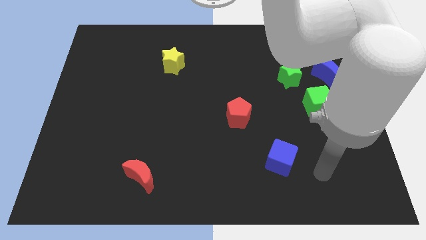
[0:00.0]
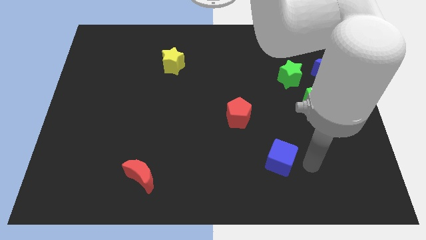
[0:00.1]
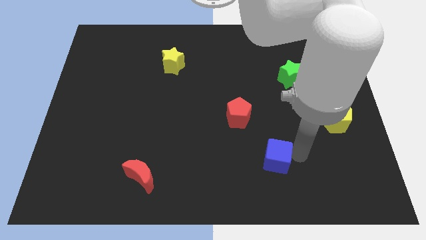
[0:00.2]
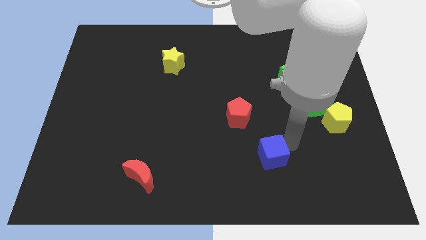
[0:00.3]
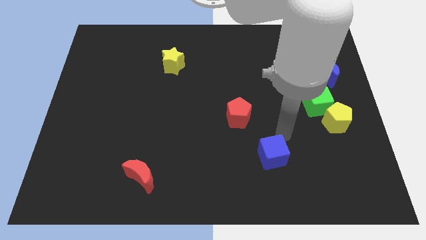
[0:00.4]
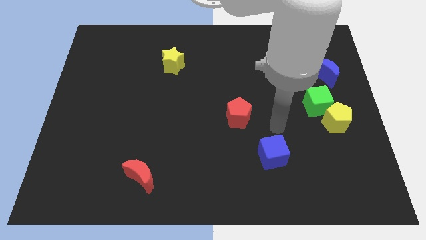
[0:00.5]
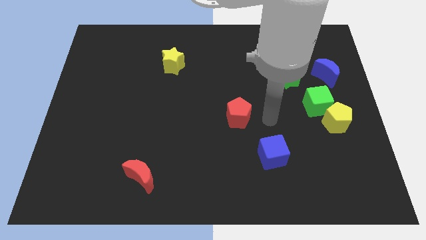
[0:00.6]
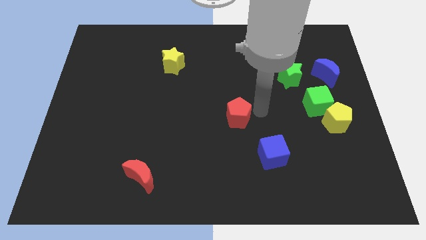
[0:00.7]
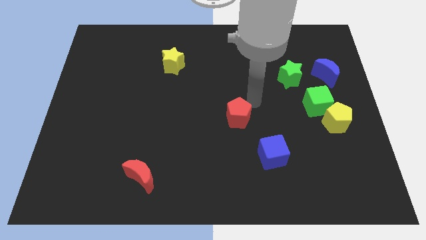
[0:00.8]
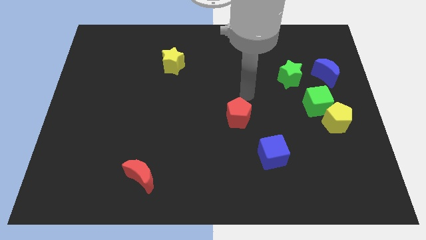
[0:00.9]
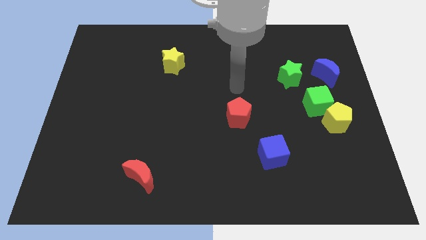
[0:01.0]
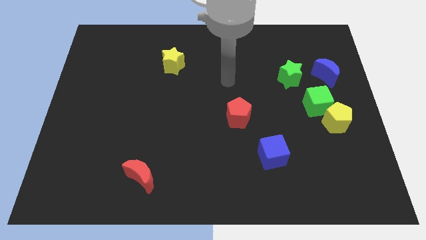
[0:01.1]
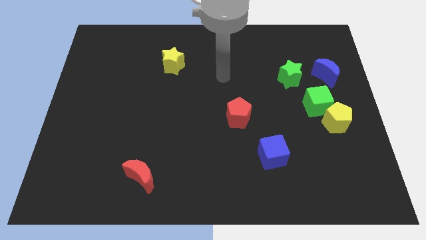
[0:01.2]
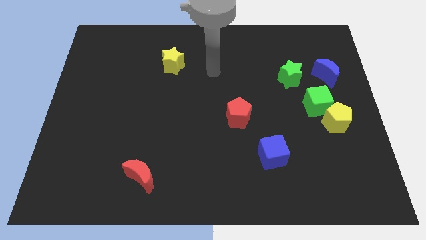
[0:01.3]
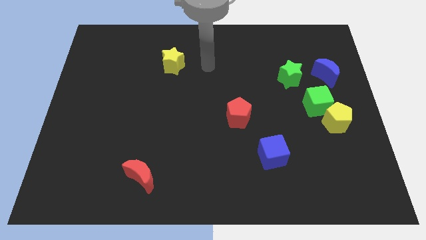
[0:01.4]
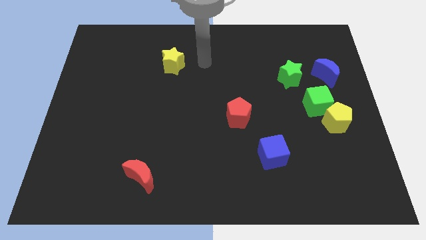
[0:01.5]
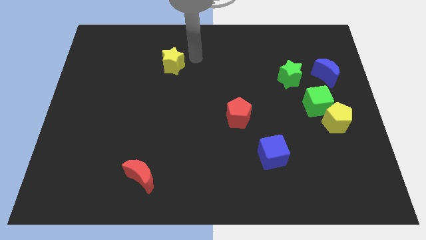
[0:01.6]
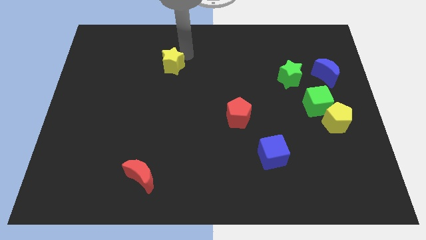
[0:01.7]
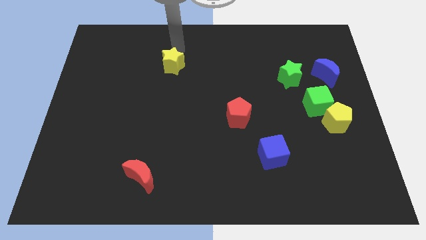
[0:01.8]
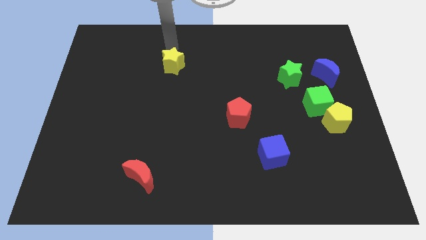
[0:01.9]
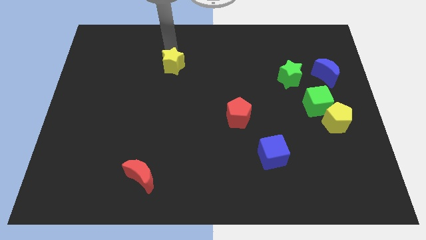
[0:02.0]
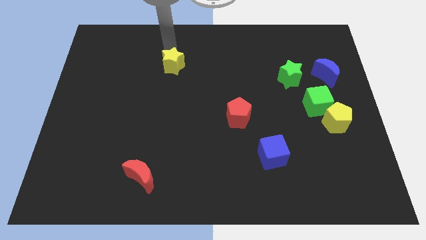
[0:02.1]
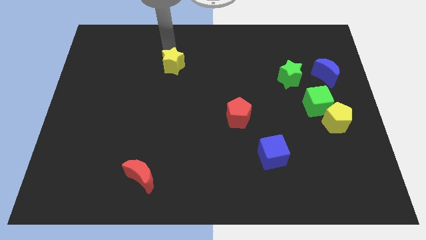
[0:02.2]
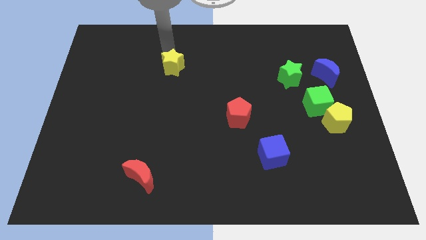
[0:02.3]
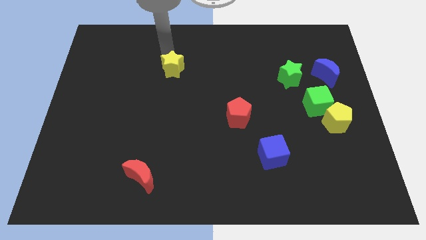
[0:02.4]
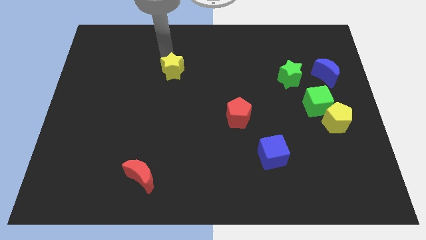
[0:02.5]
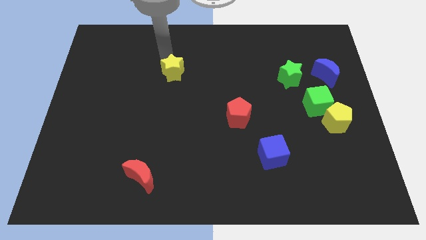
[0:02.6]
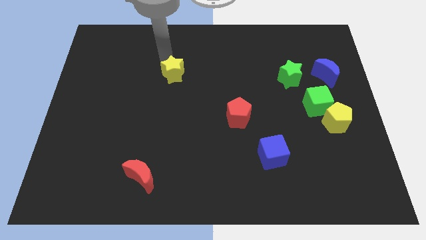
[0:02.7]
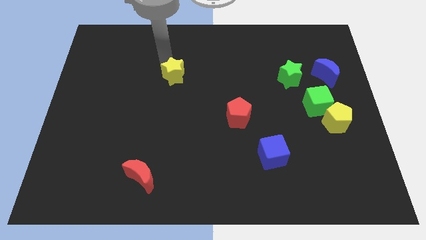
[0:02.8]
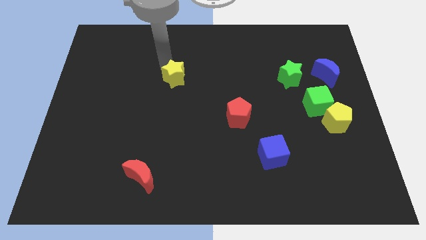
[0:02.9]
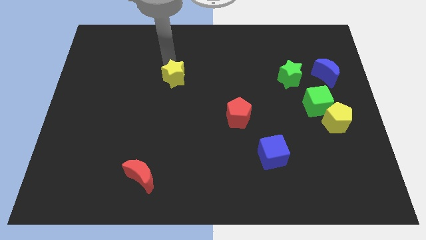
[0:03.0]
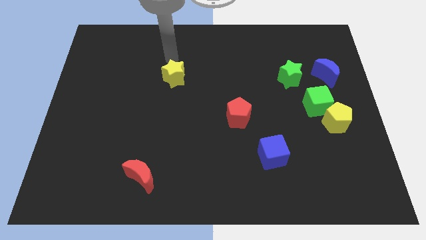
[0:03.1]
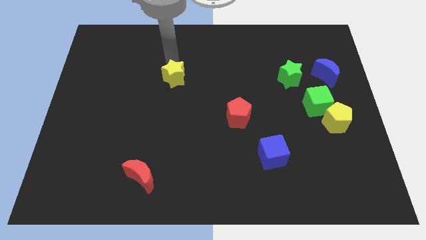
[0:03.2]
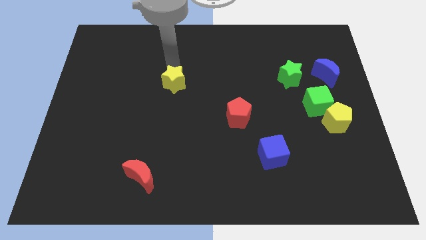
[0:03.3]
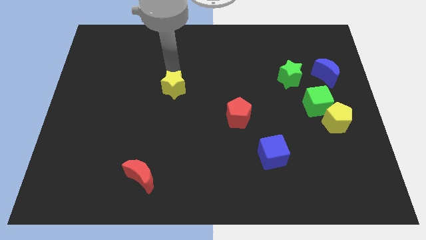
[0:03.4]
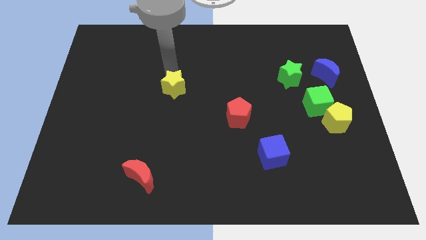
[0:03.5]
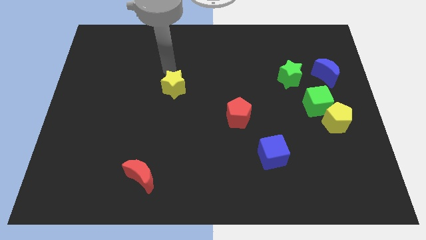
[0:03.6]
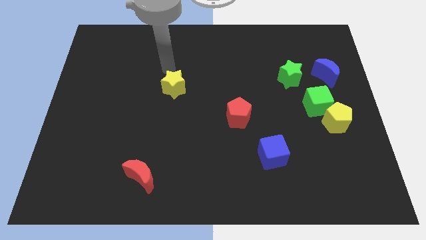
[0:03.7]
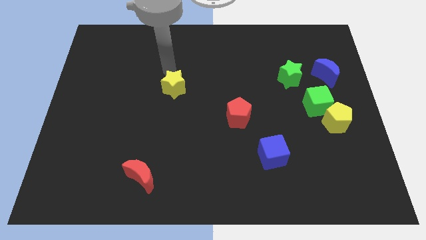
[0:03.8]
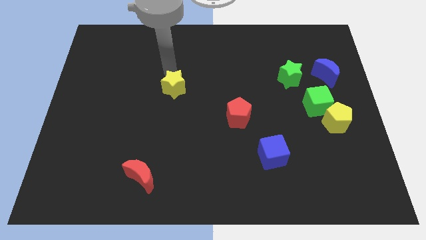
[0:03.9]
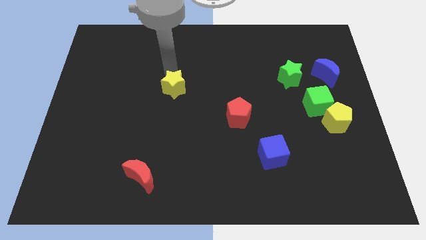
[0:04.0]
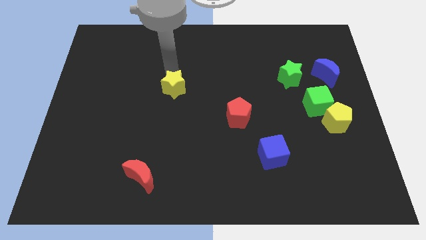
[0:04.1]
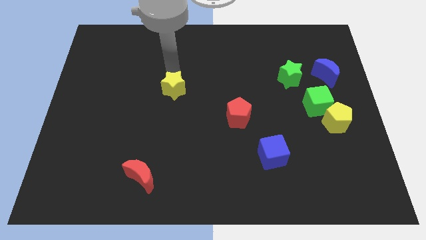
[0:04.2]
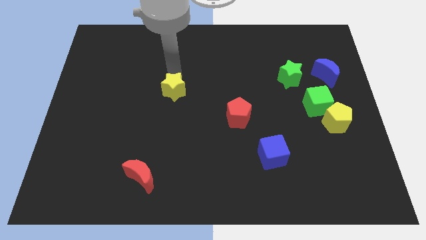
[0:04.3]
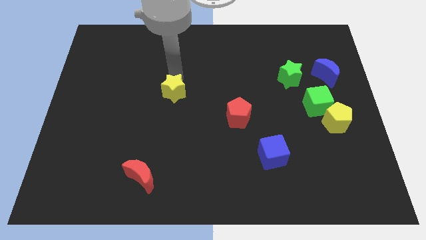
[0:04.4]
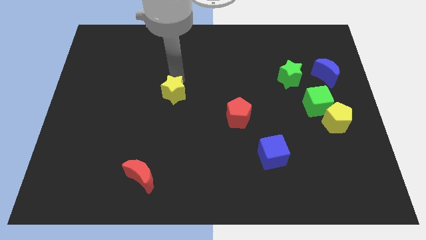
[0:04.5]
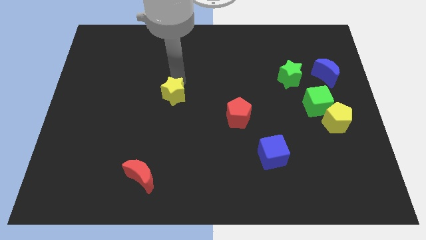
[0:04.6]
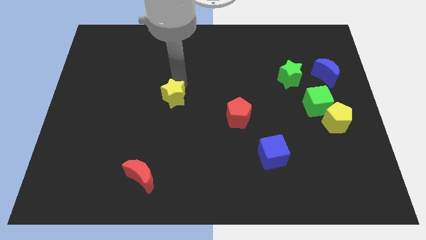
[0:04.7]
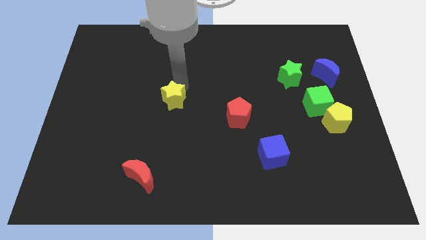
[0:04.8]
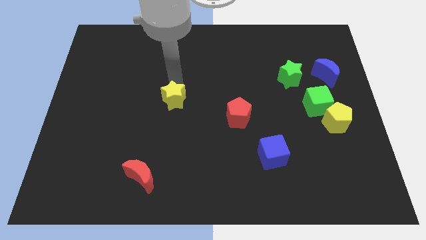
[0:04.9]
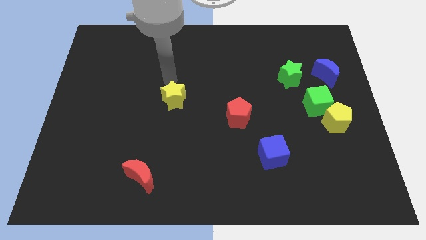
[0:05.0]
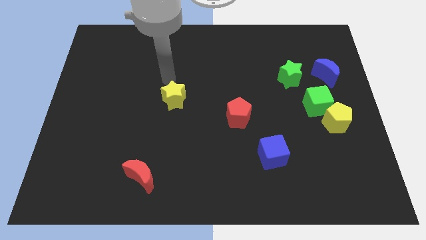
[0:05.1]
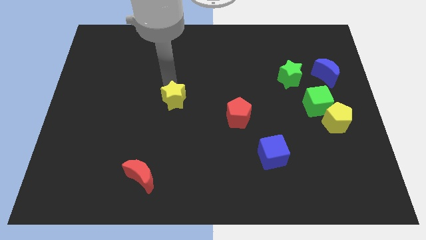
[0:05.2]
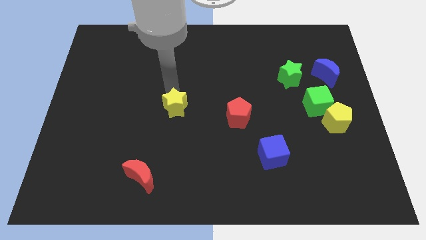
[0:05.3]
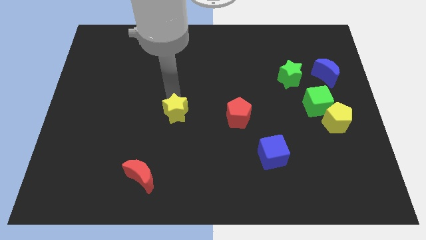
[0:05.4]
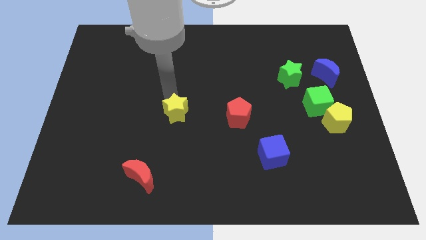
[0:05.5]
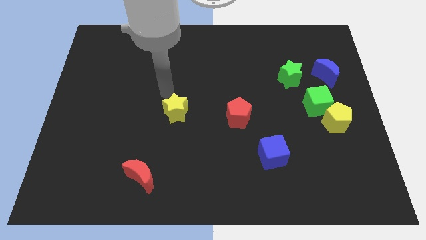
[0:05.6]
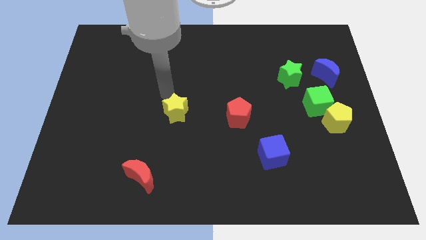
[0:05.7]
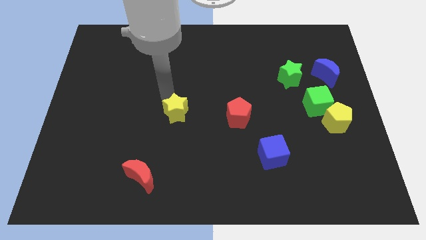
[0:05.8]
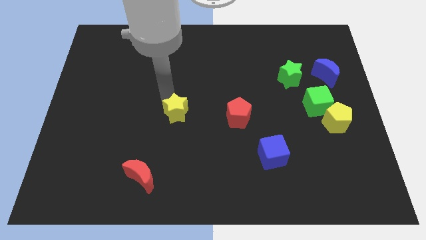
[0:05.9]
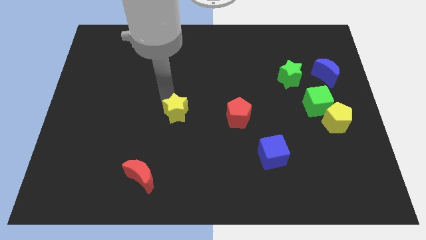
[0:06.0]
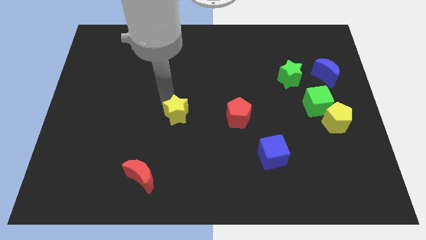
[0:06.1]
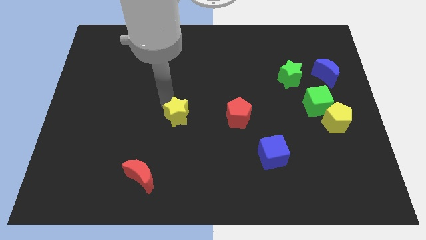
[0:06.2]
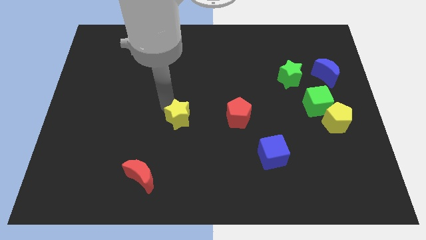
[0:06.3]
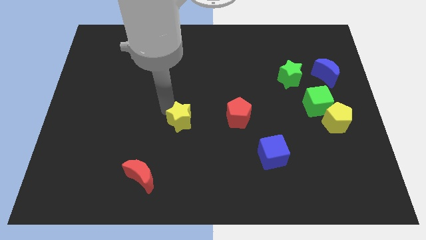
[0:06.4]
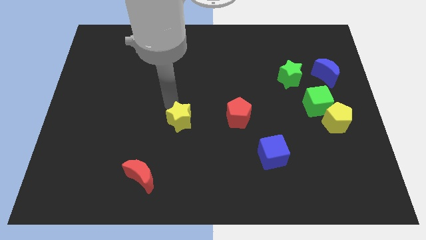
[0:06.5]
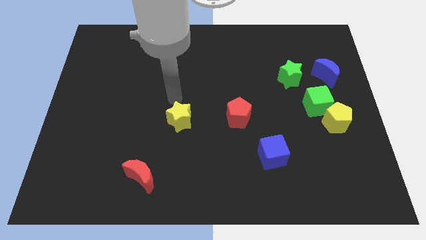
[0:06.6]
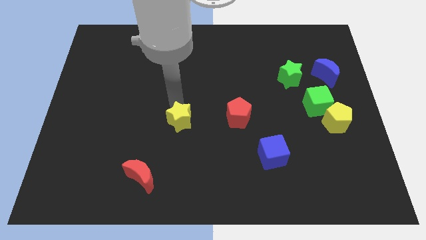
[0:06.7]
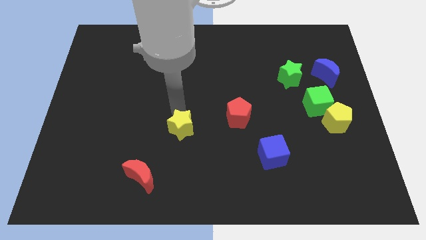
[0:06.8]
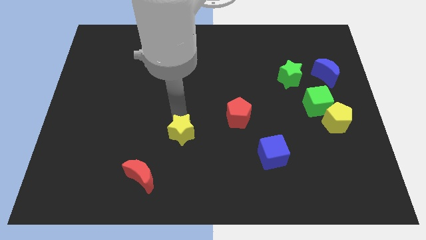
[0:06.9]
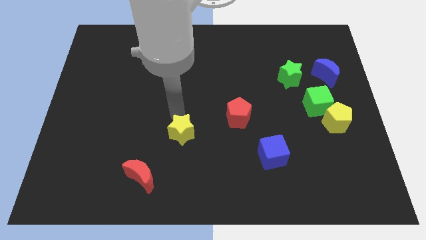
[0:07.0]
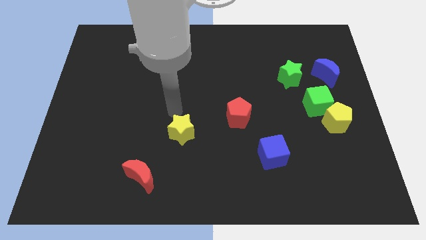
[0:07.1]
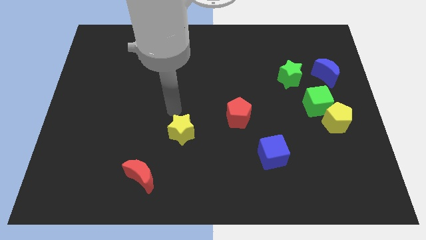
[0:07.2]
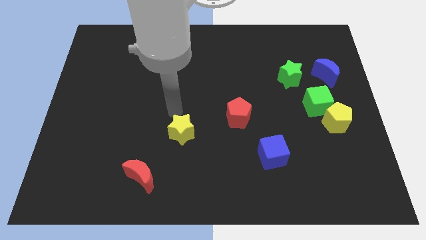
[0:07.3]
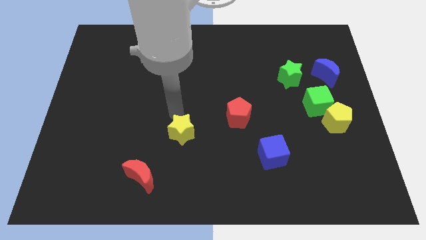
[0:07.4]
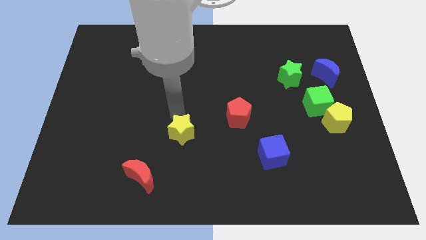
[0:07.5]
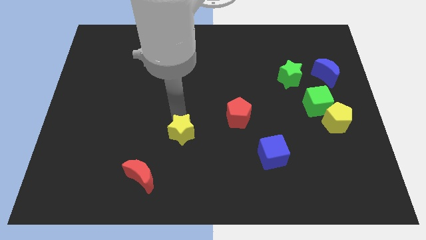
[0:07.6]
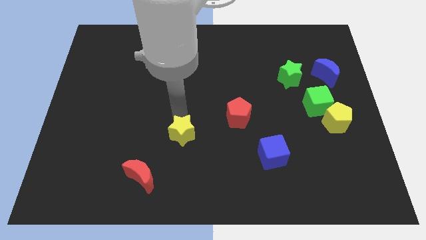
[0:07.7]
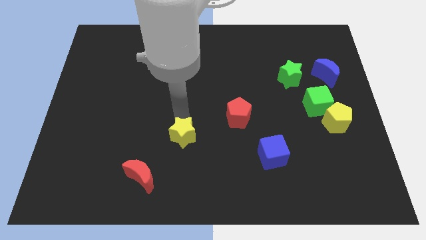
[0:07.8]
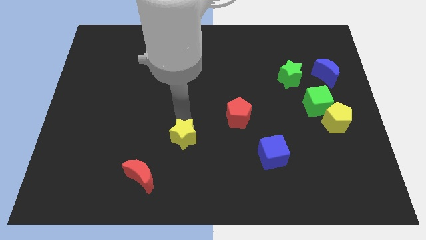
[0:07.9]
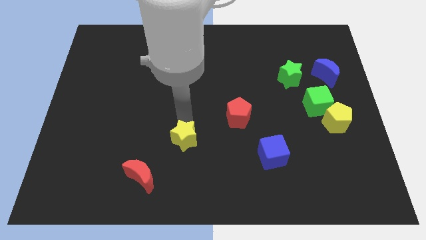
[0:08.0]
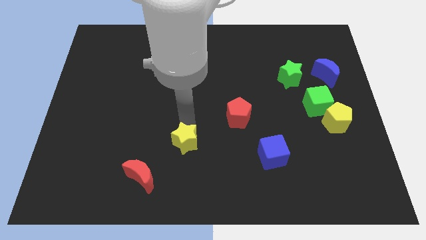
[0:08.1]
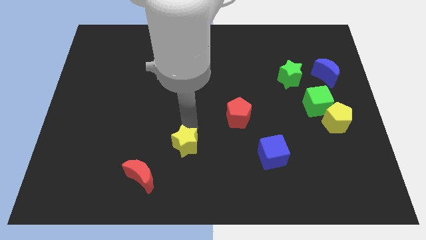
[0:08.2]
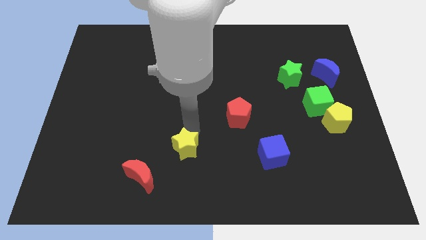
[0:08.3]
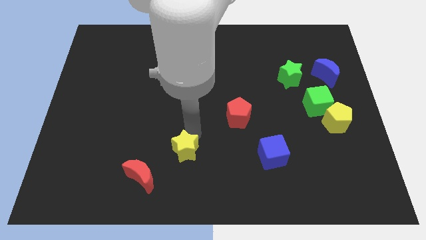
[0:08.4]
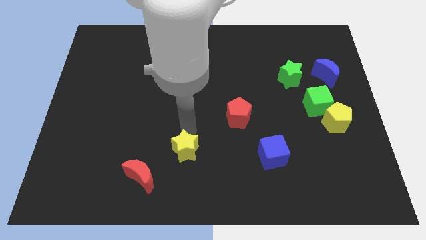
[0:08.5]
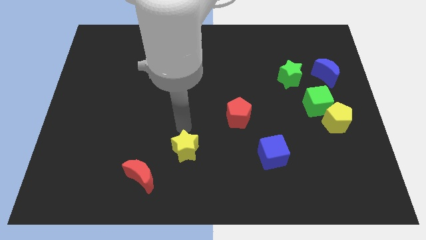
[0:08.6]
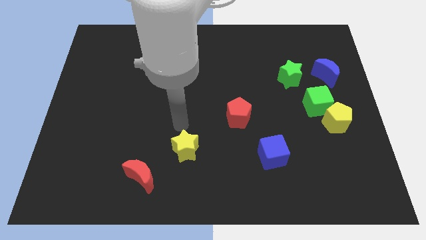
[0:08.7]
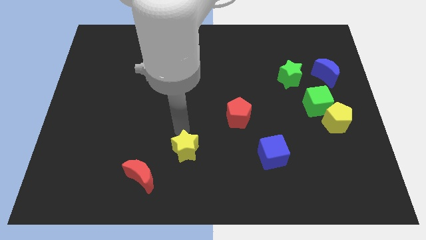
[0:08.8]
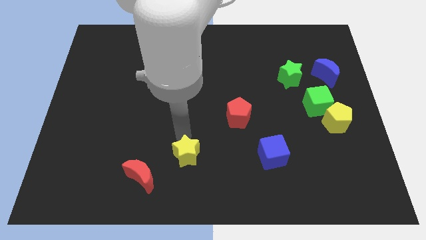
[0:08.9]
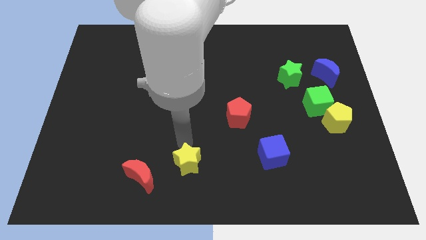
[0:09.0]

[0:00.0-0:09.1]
move the yellow star to the right of the red moon
